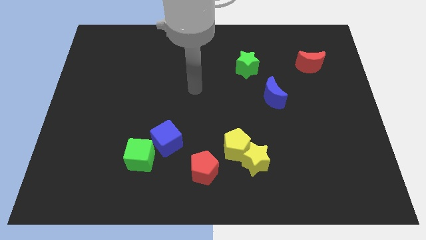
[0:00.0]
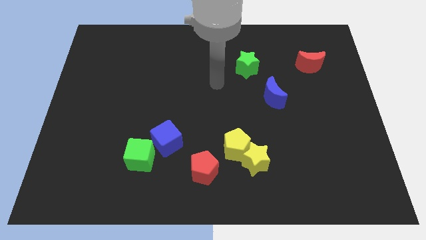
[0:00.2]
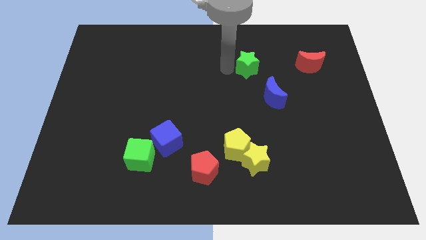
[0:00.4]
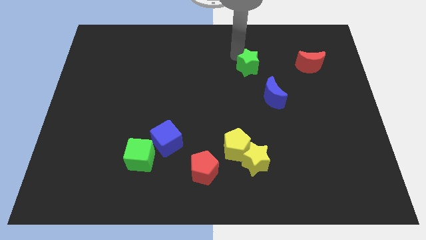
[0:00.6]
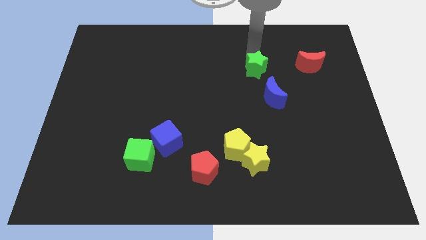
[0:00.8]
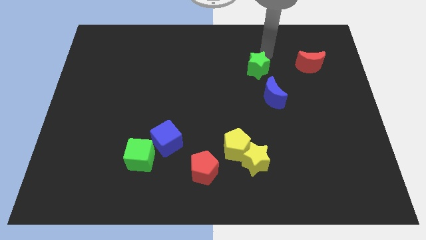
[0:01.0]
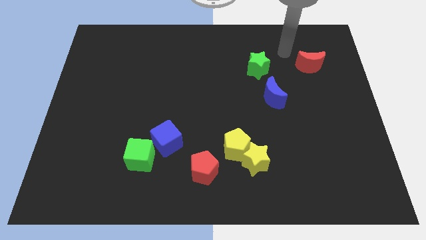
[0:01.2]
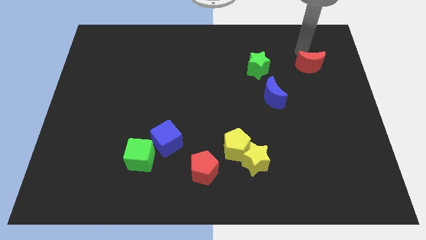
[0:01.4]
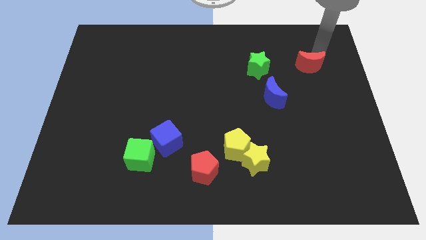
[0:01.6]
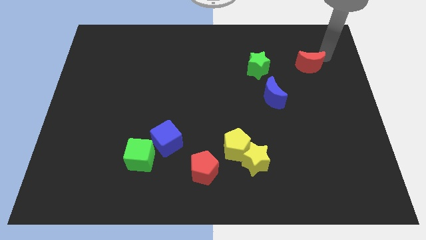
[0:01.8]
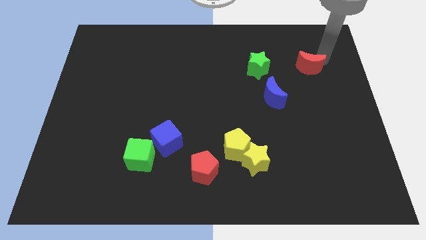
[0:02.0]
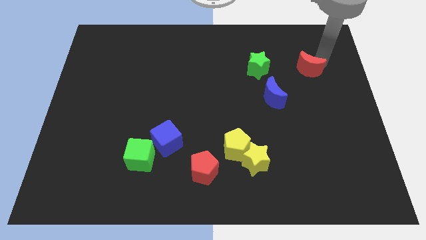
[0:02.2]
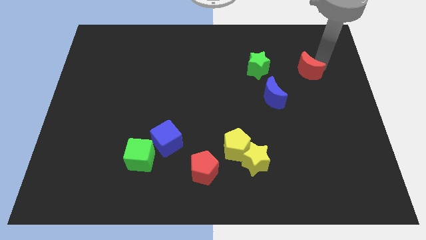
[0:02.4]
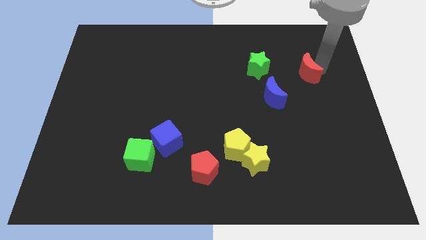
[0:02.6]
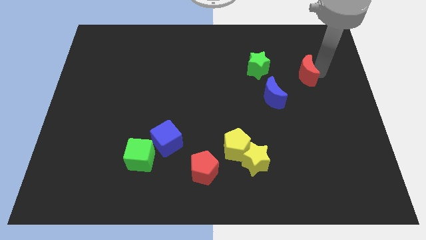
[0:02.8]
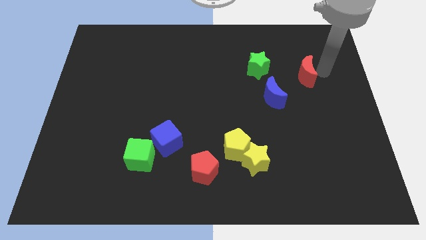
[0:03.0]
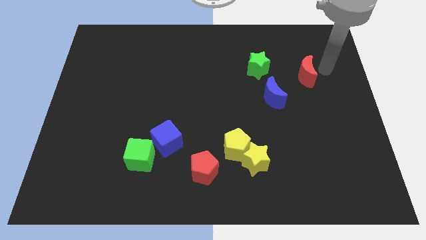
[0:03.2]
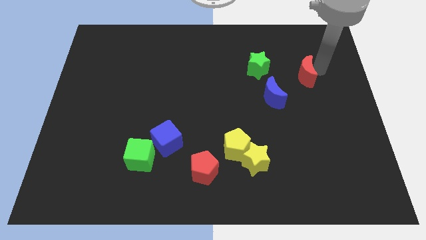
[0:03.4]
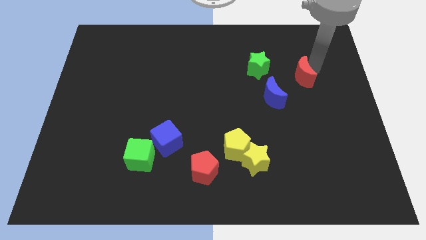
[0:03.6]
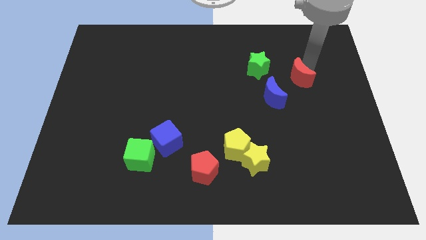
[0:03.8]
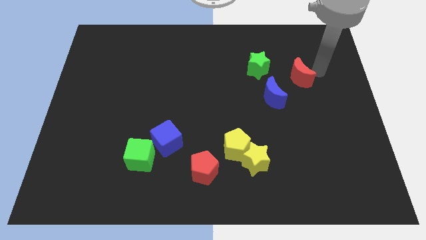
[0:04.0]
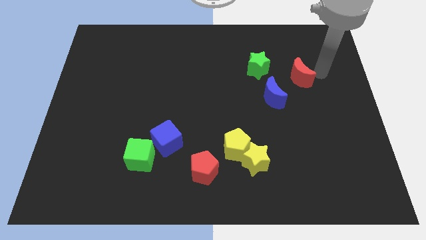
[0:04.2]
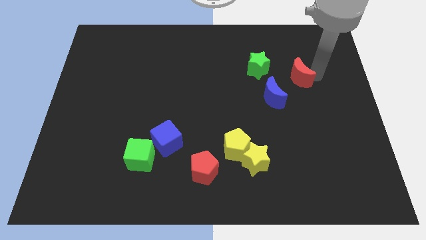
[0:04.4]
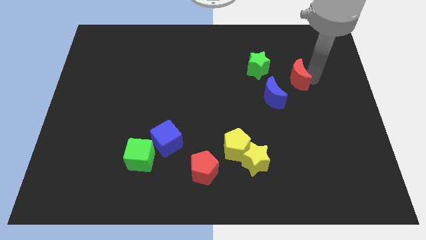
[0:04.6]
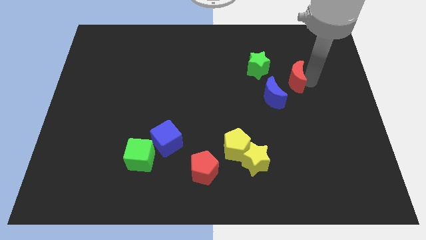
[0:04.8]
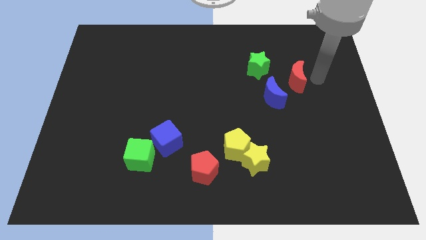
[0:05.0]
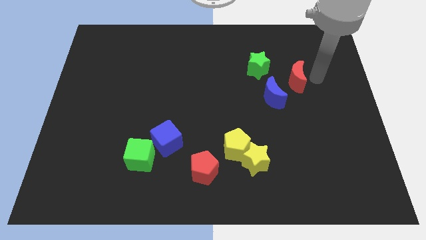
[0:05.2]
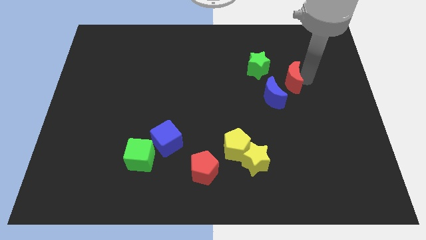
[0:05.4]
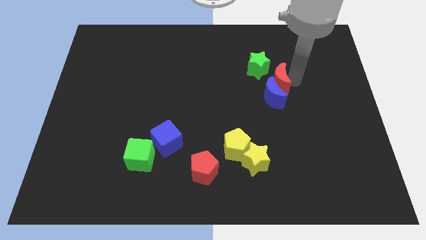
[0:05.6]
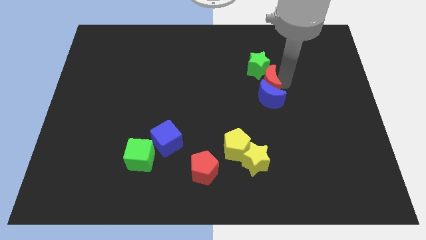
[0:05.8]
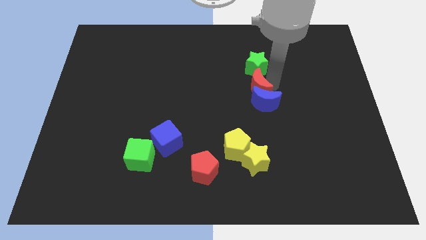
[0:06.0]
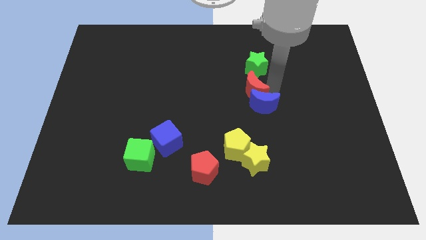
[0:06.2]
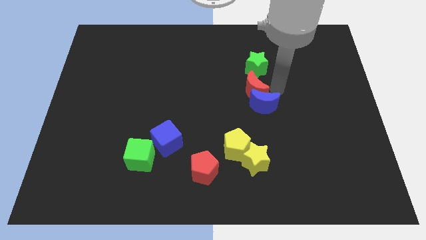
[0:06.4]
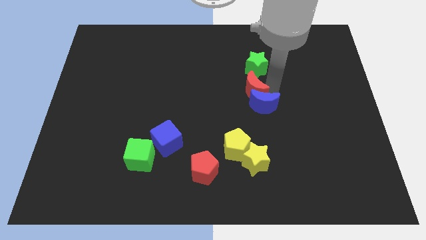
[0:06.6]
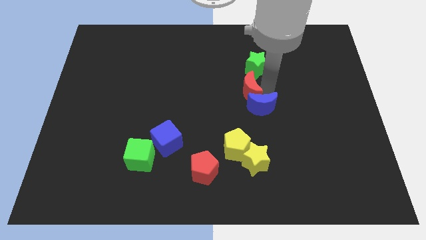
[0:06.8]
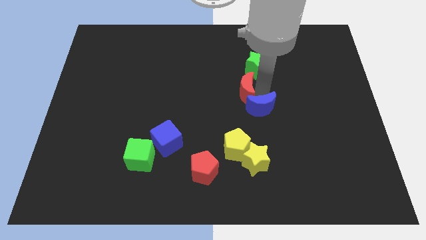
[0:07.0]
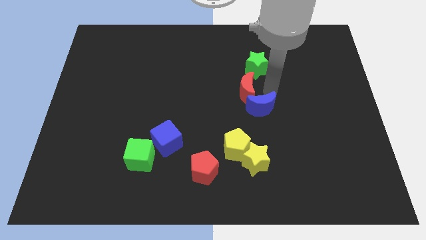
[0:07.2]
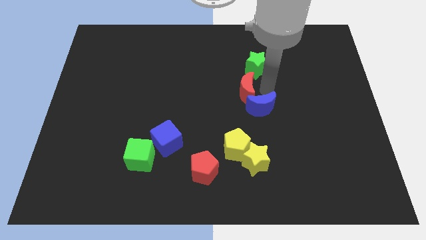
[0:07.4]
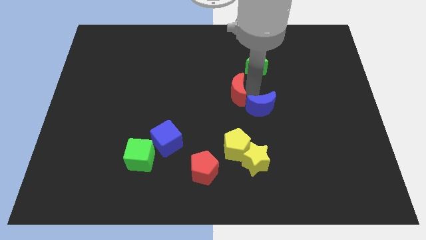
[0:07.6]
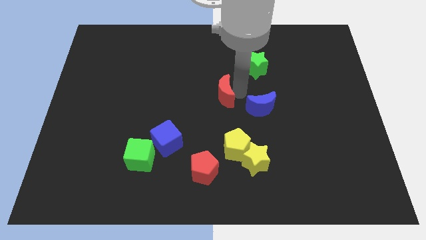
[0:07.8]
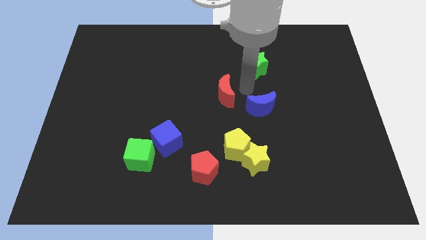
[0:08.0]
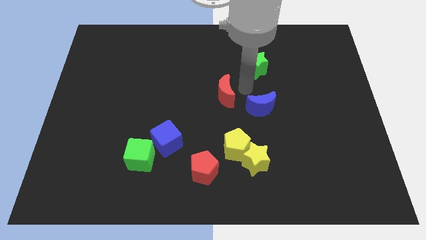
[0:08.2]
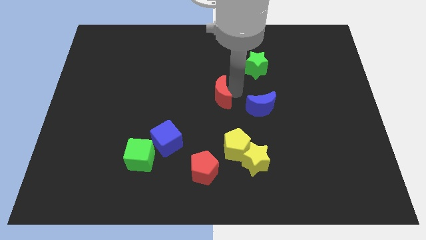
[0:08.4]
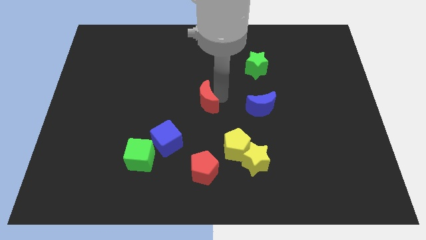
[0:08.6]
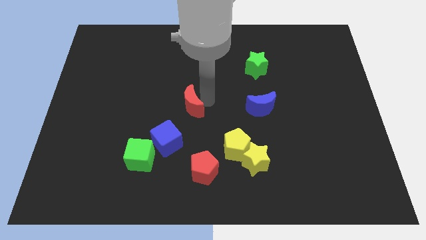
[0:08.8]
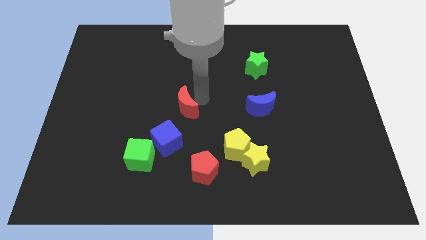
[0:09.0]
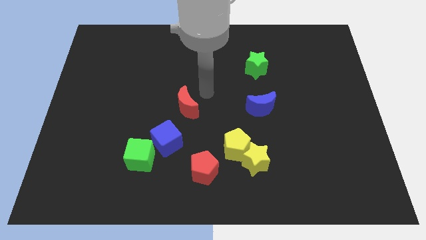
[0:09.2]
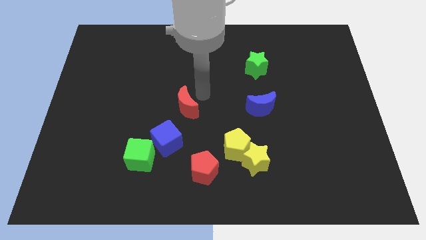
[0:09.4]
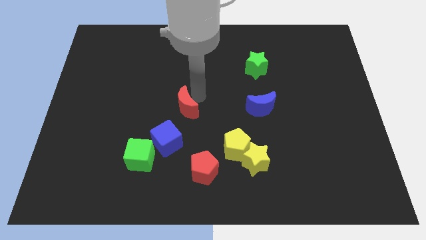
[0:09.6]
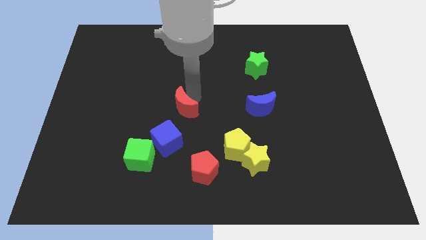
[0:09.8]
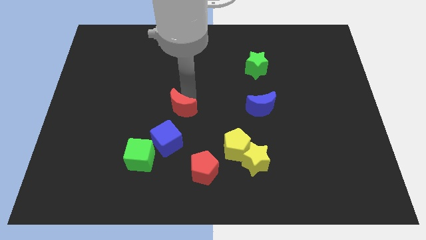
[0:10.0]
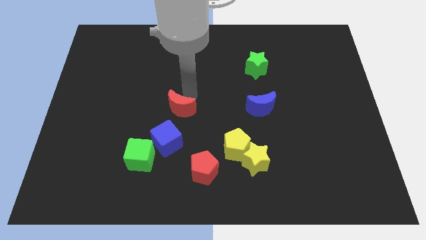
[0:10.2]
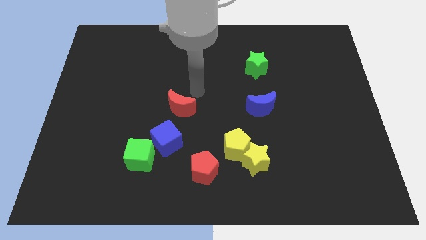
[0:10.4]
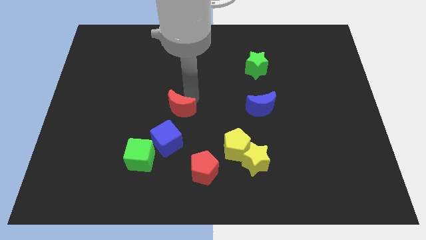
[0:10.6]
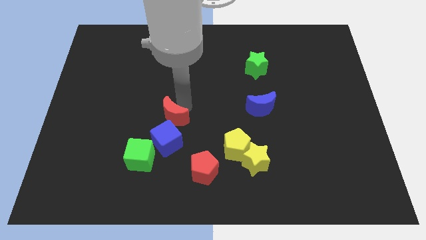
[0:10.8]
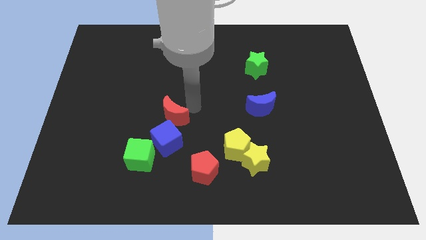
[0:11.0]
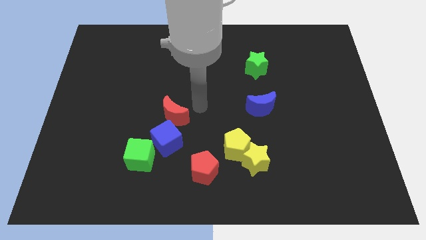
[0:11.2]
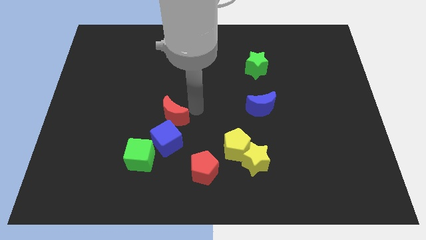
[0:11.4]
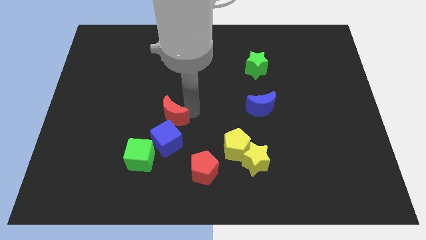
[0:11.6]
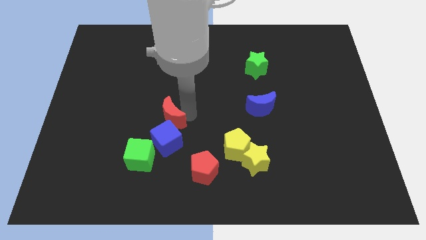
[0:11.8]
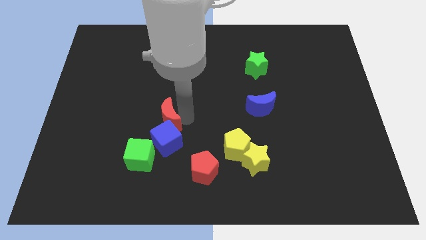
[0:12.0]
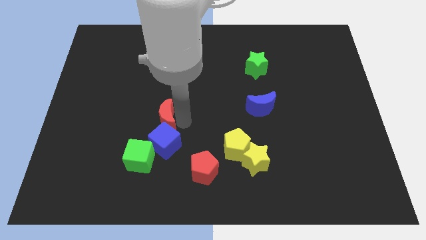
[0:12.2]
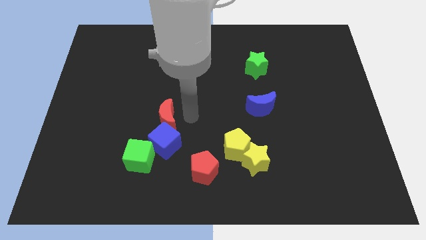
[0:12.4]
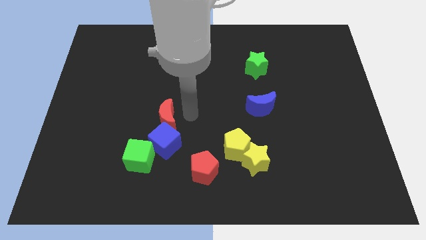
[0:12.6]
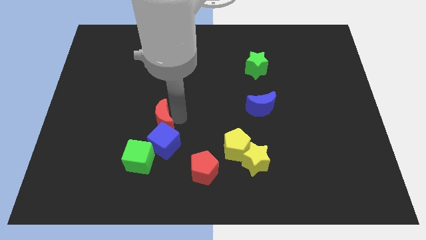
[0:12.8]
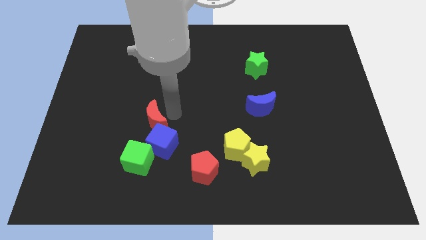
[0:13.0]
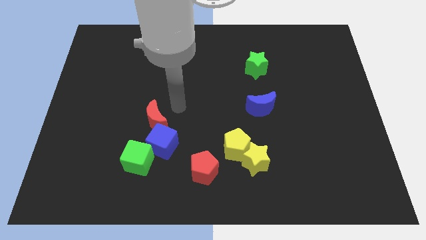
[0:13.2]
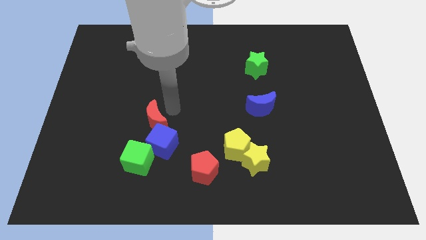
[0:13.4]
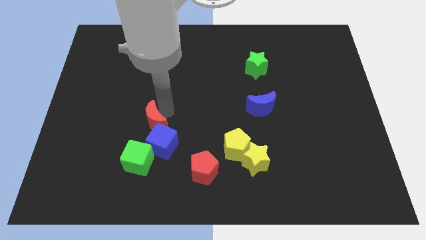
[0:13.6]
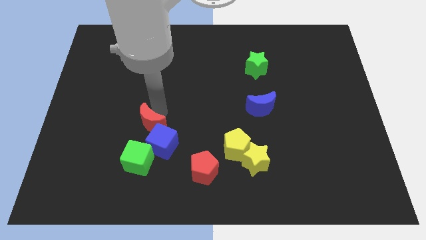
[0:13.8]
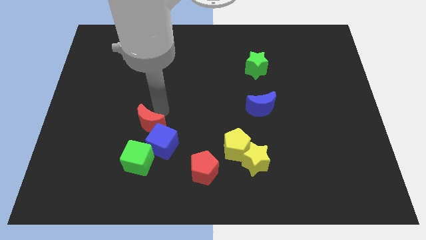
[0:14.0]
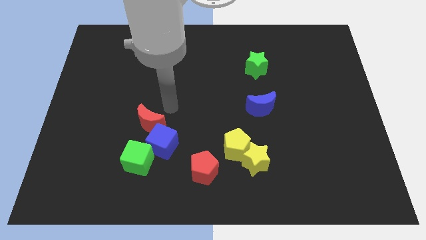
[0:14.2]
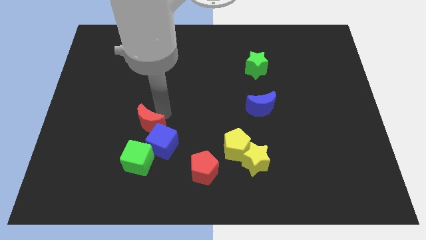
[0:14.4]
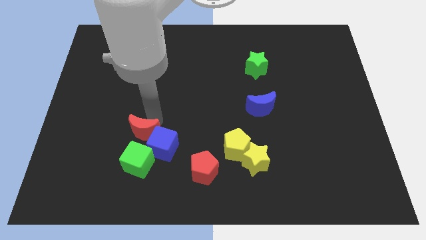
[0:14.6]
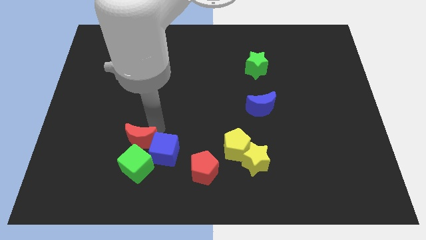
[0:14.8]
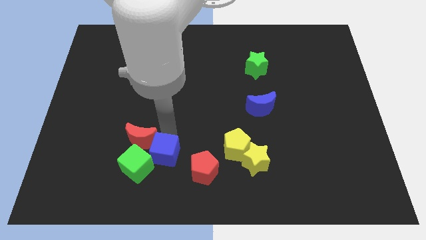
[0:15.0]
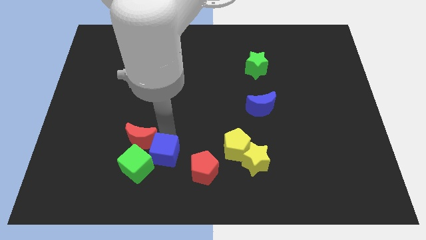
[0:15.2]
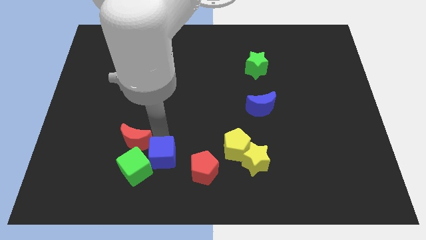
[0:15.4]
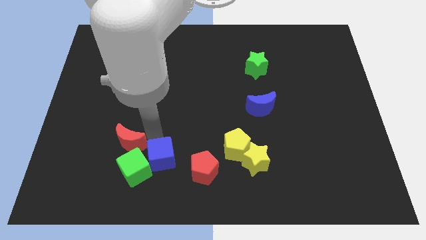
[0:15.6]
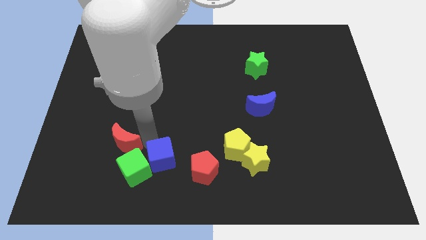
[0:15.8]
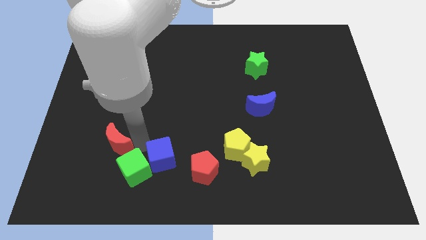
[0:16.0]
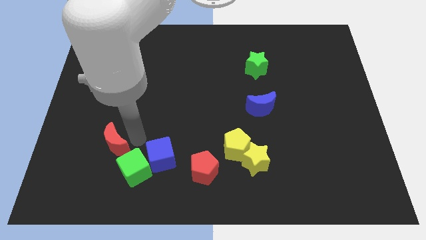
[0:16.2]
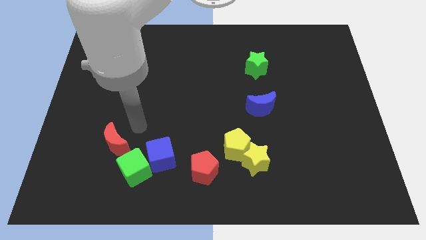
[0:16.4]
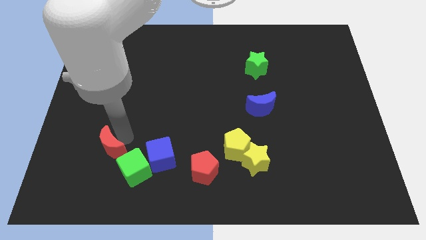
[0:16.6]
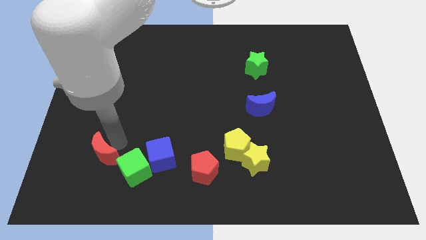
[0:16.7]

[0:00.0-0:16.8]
put the red moon to the left side of the green cube
